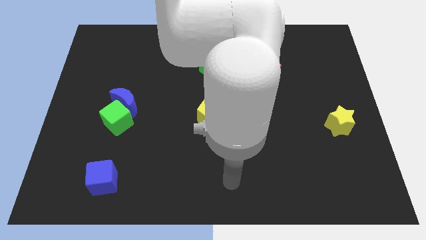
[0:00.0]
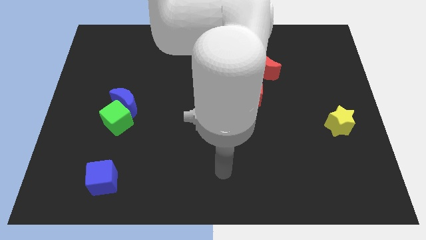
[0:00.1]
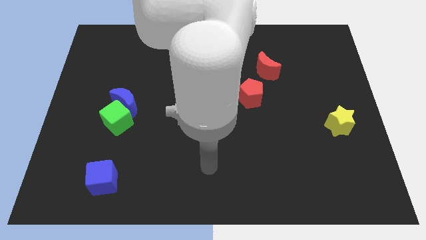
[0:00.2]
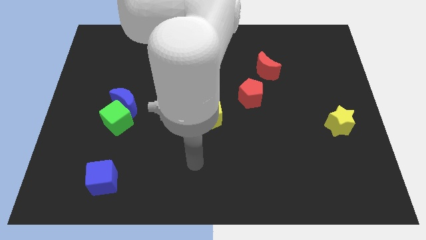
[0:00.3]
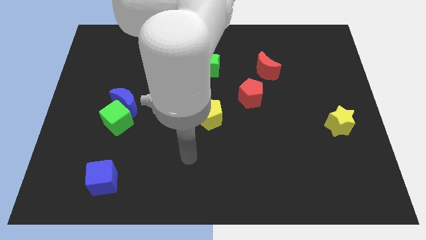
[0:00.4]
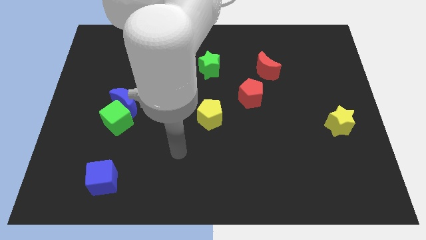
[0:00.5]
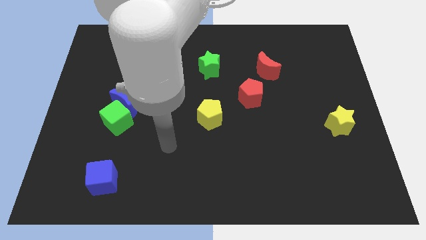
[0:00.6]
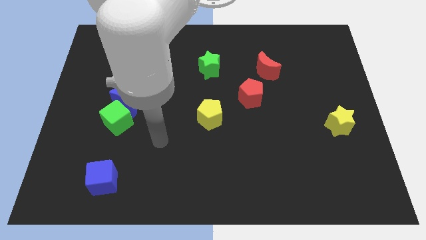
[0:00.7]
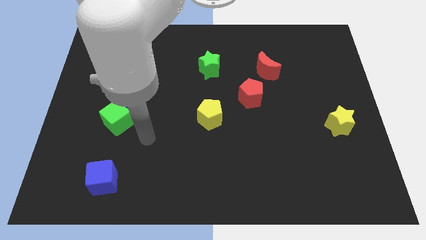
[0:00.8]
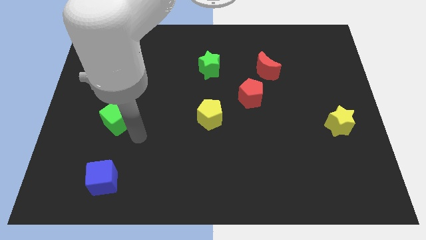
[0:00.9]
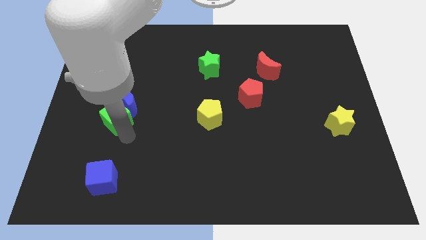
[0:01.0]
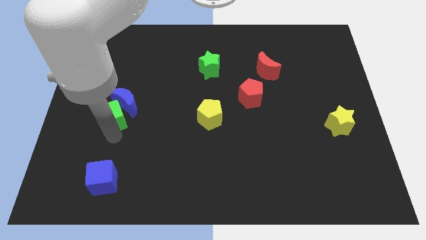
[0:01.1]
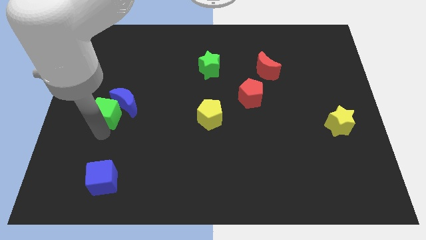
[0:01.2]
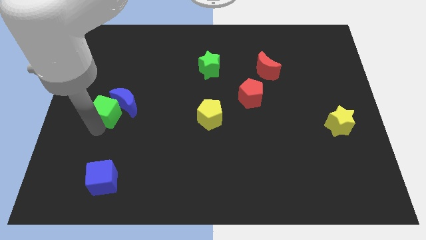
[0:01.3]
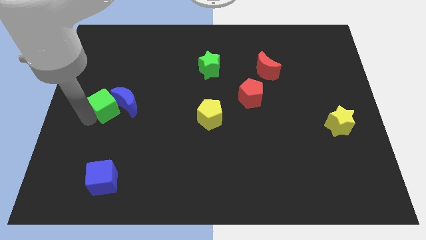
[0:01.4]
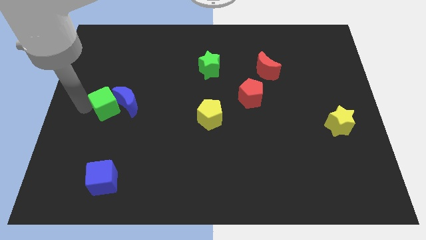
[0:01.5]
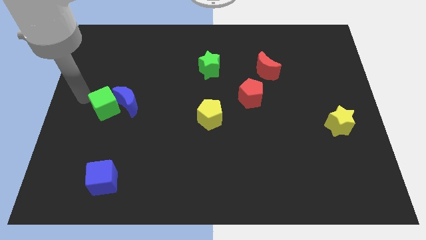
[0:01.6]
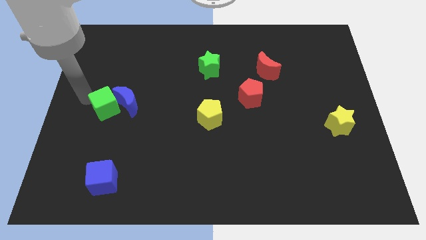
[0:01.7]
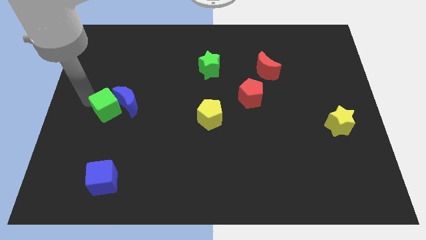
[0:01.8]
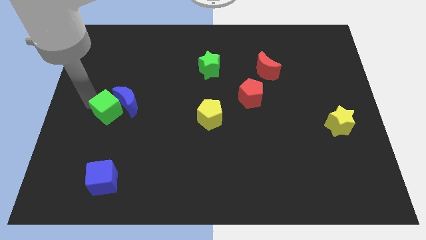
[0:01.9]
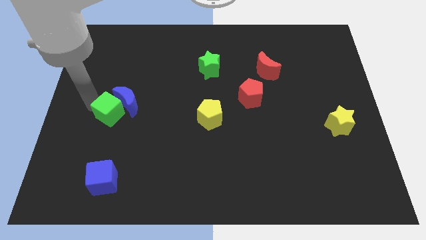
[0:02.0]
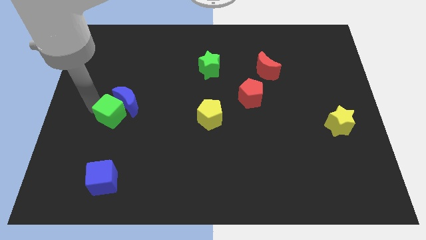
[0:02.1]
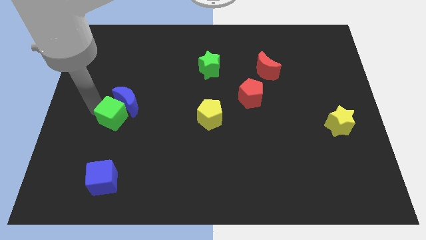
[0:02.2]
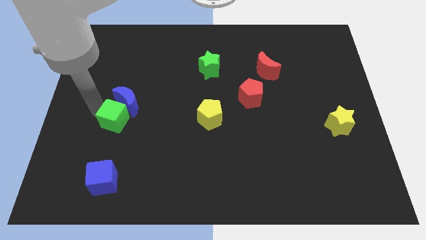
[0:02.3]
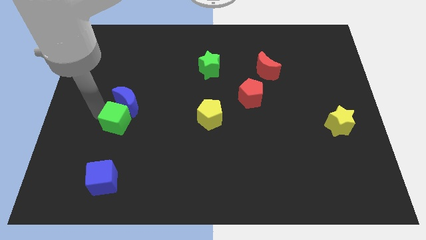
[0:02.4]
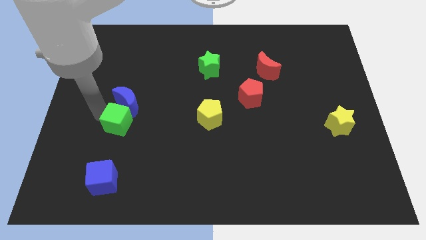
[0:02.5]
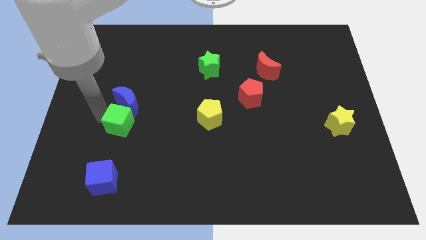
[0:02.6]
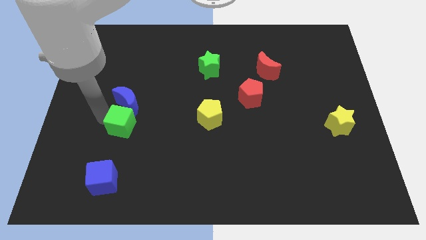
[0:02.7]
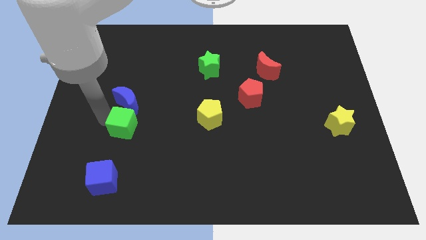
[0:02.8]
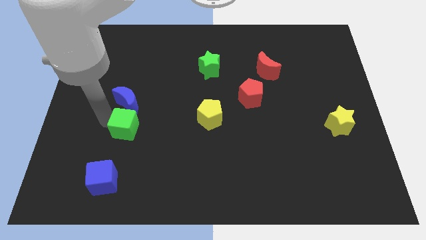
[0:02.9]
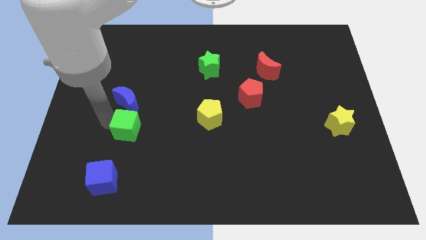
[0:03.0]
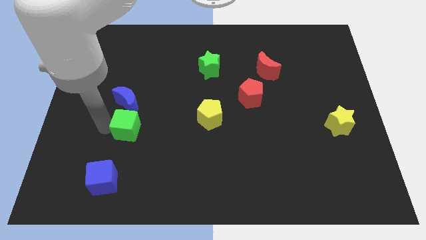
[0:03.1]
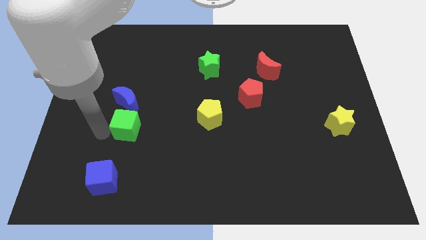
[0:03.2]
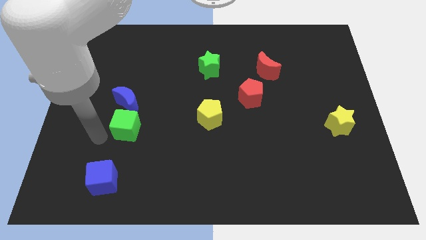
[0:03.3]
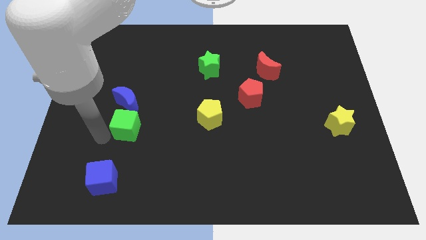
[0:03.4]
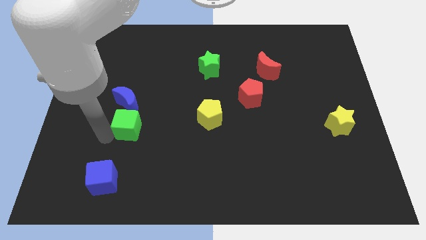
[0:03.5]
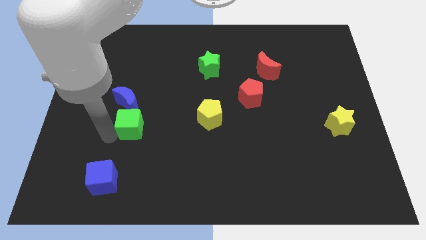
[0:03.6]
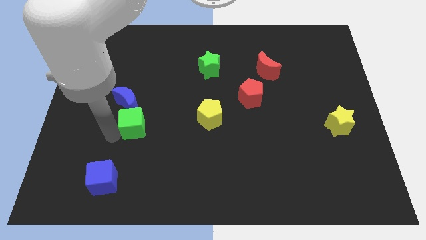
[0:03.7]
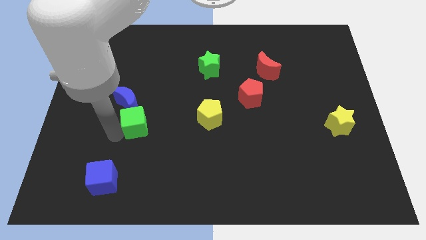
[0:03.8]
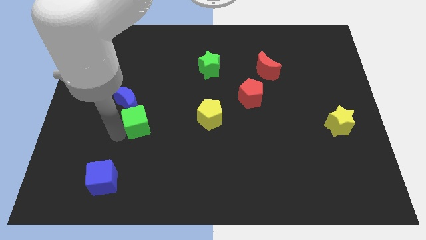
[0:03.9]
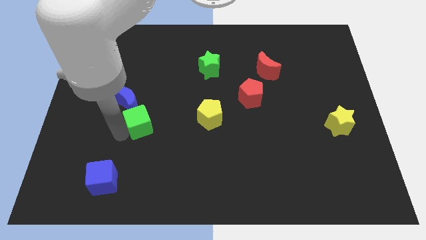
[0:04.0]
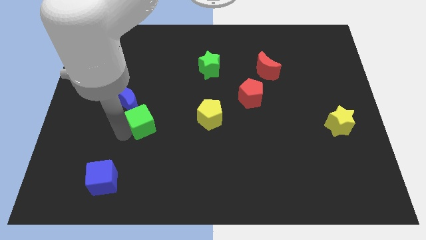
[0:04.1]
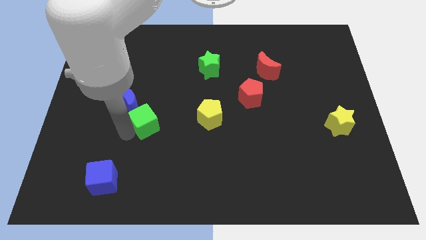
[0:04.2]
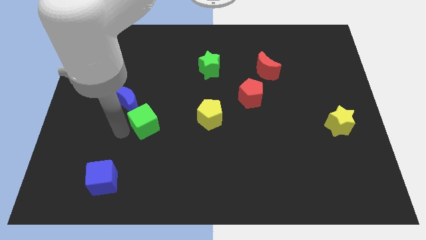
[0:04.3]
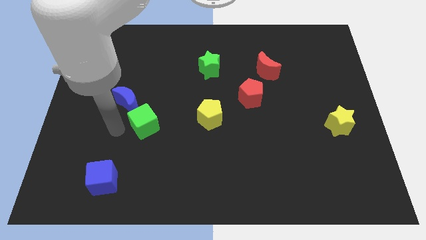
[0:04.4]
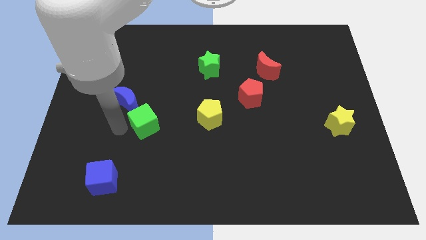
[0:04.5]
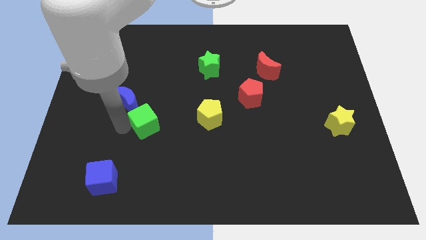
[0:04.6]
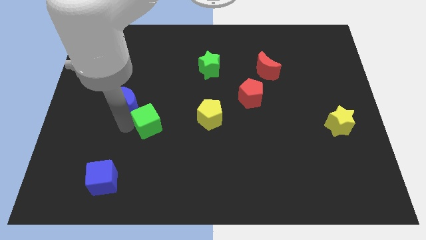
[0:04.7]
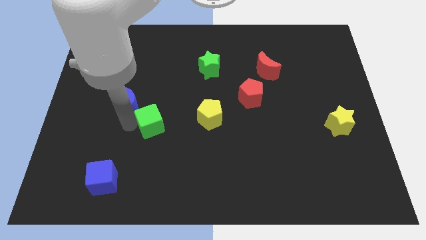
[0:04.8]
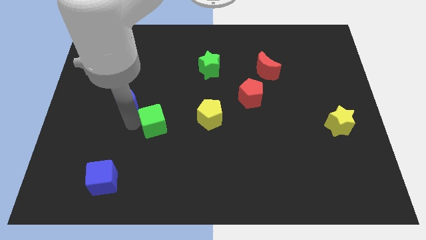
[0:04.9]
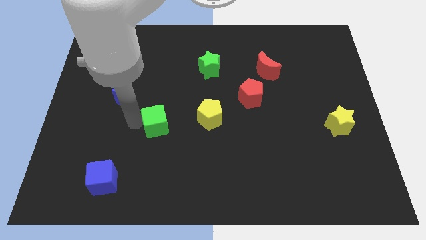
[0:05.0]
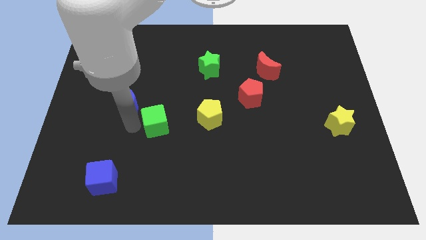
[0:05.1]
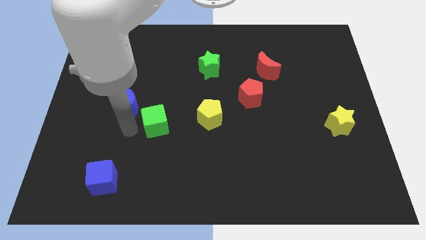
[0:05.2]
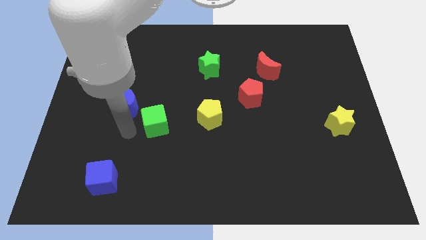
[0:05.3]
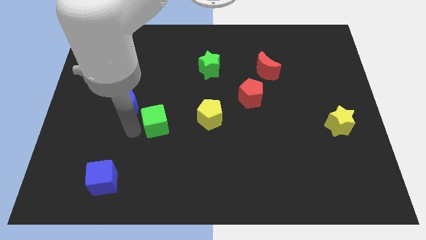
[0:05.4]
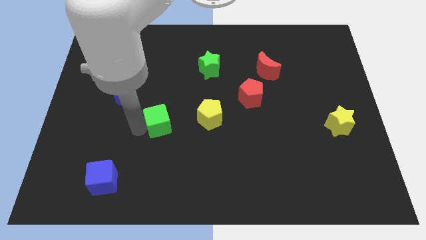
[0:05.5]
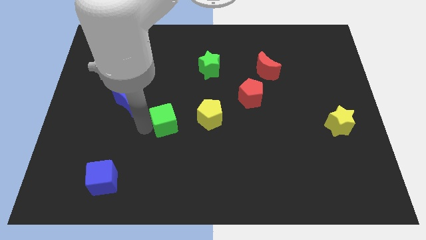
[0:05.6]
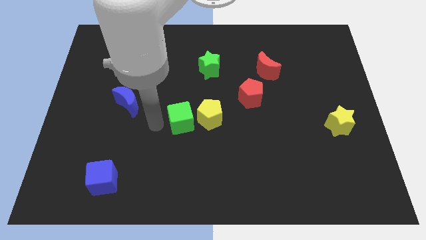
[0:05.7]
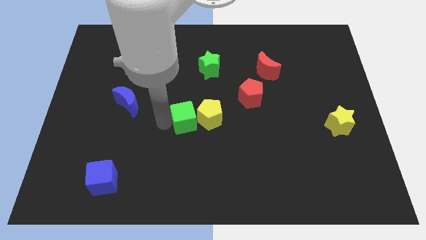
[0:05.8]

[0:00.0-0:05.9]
slide the green cube towards the yellow pentagon

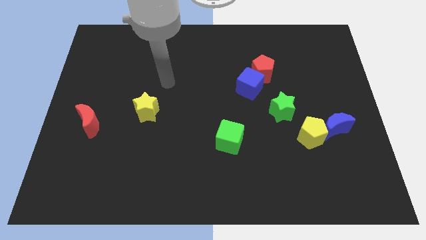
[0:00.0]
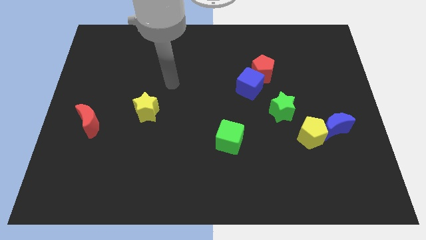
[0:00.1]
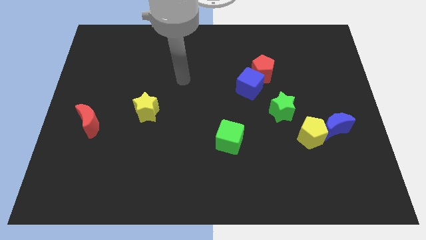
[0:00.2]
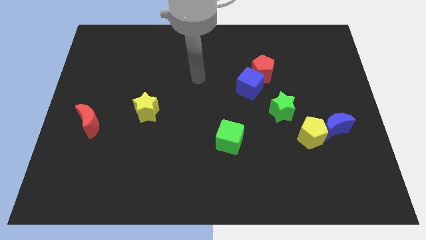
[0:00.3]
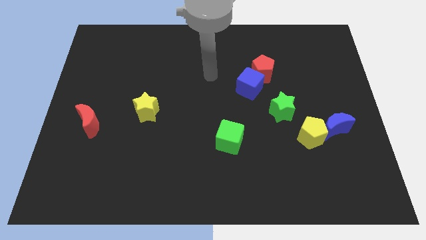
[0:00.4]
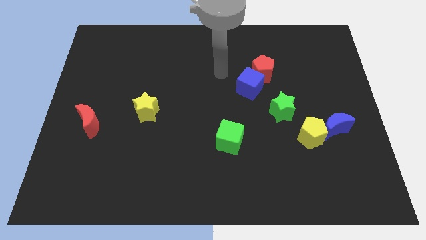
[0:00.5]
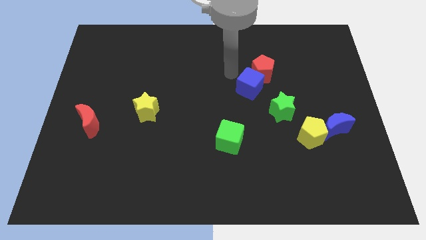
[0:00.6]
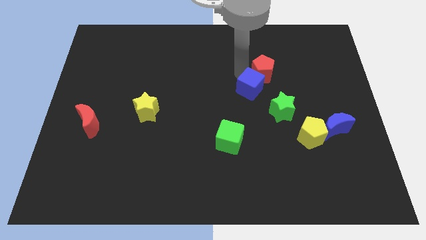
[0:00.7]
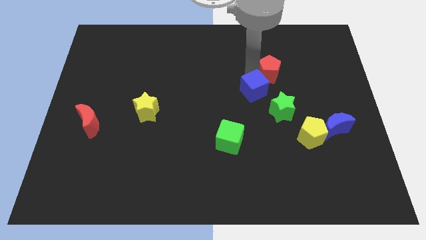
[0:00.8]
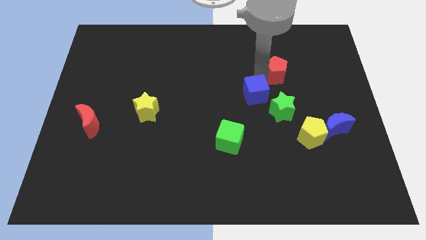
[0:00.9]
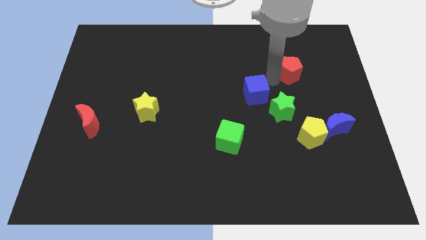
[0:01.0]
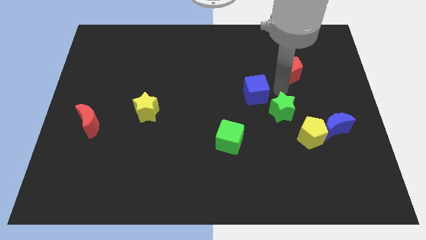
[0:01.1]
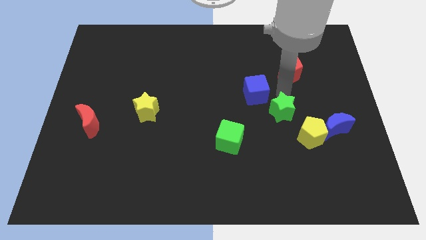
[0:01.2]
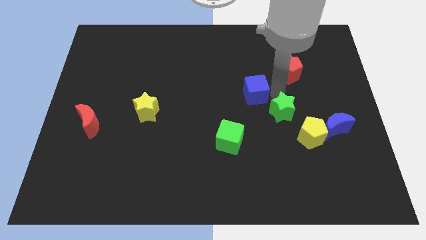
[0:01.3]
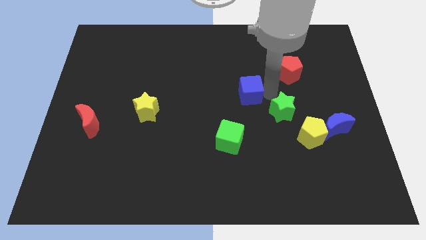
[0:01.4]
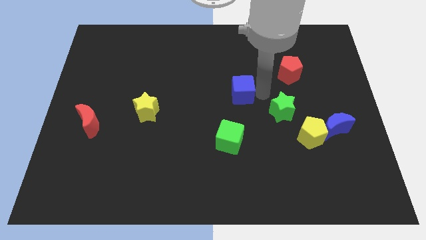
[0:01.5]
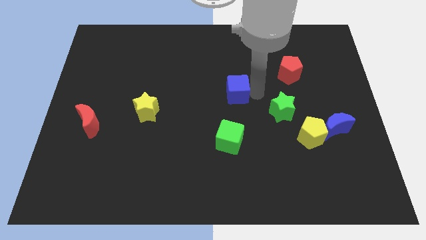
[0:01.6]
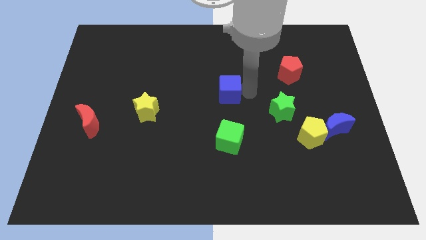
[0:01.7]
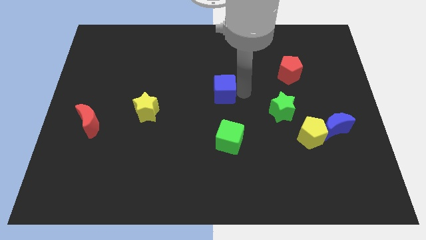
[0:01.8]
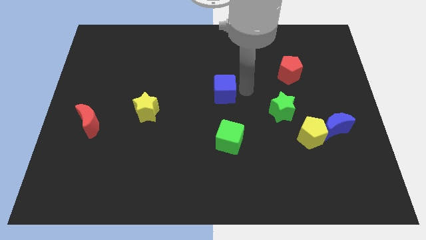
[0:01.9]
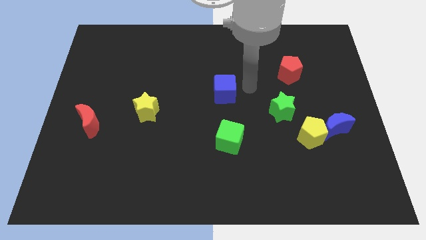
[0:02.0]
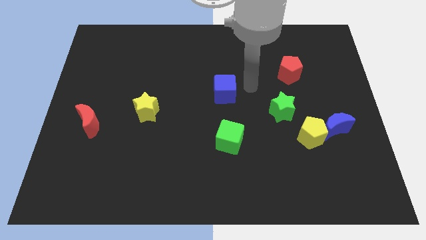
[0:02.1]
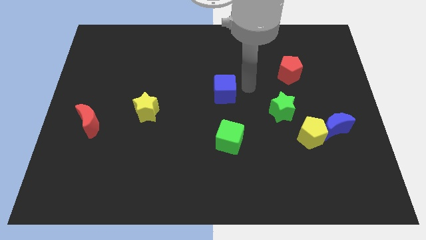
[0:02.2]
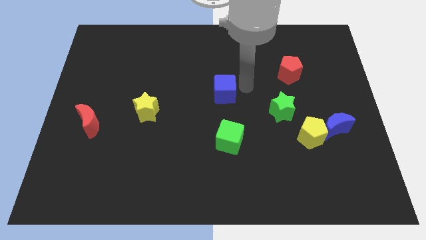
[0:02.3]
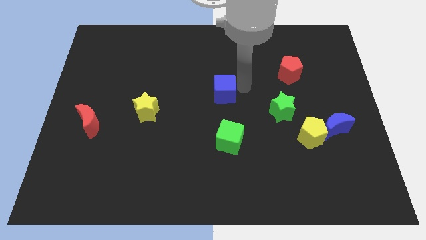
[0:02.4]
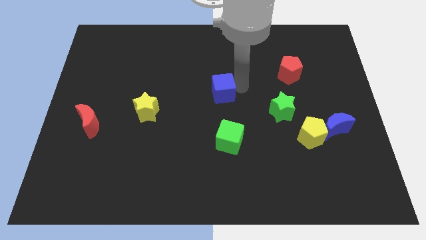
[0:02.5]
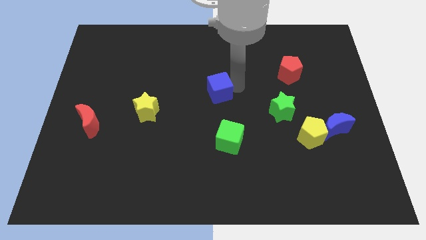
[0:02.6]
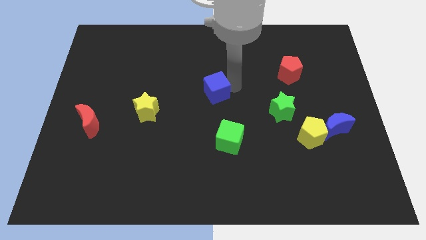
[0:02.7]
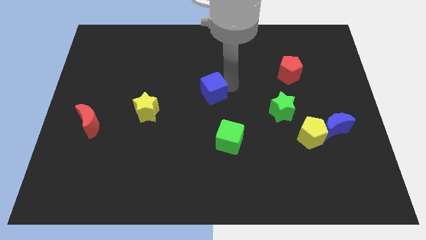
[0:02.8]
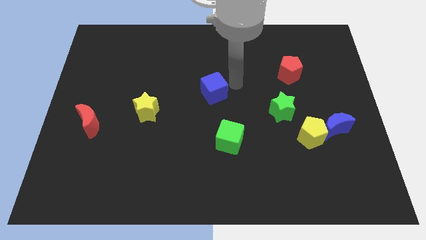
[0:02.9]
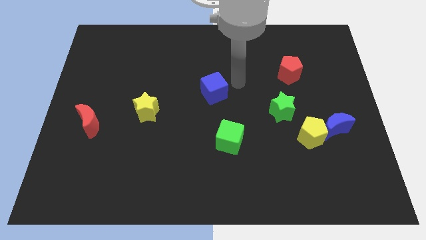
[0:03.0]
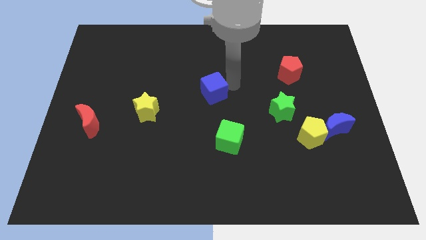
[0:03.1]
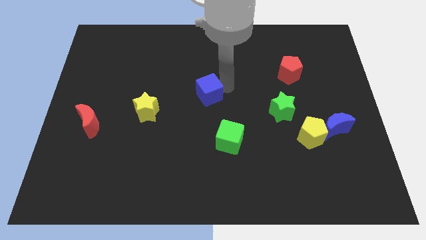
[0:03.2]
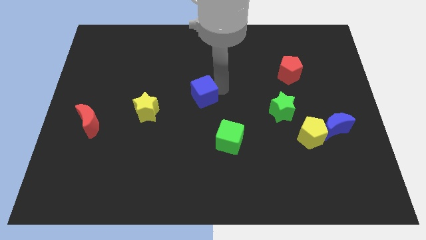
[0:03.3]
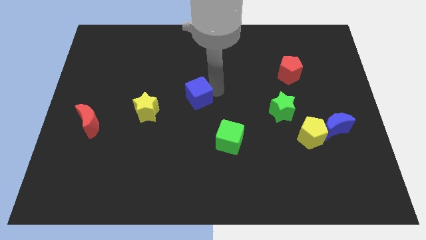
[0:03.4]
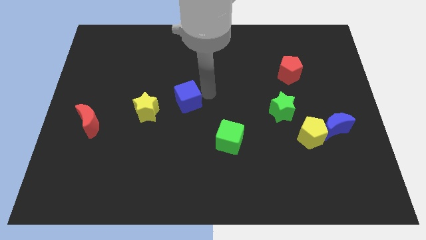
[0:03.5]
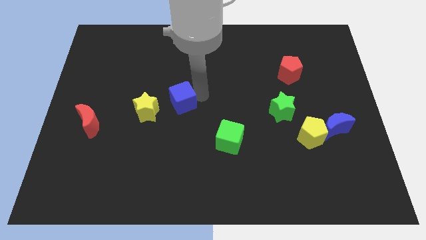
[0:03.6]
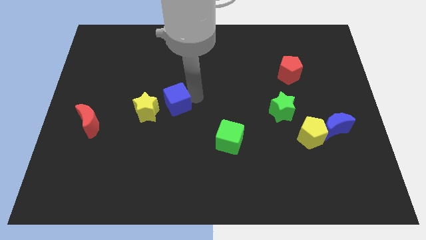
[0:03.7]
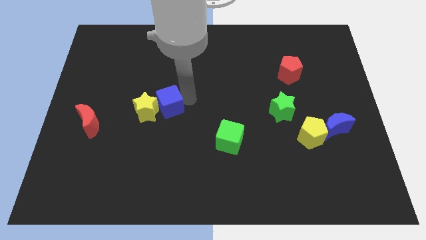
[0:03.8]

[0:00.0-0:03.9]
put the blue cube next to the yellow star
